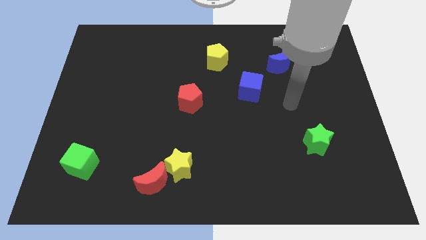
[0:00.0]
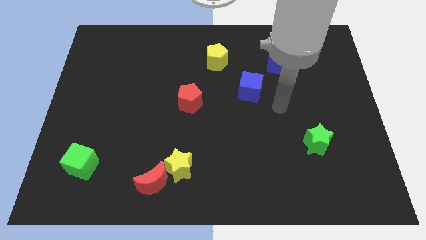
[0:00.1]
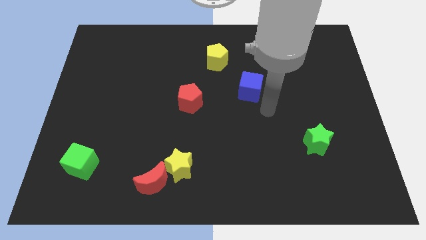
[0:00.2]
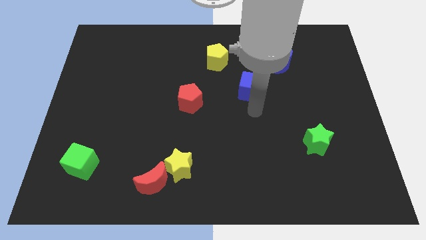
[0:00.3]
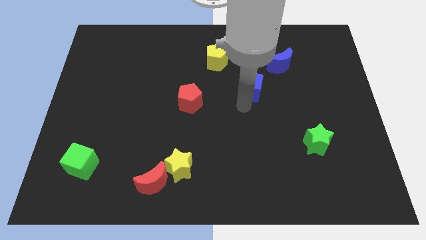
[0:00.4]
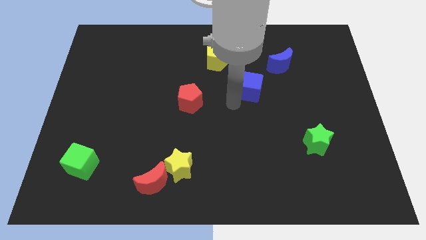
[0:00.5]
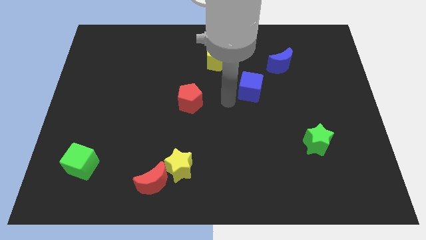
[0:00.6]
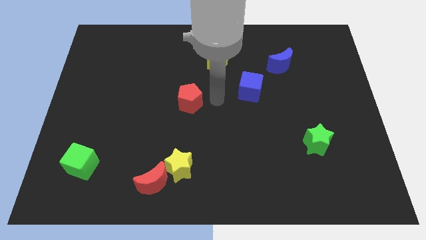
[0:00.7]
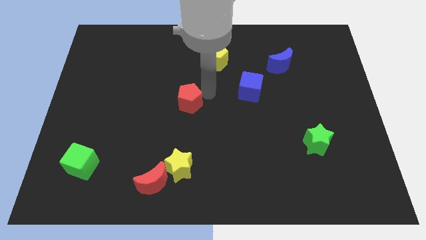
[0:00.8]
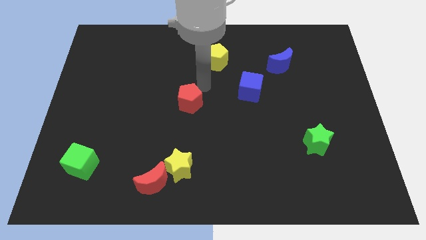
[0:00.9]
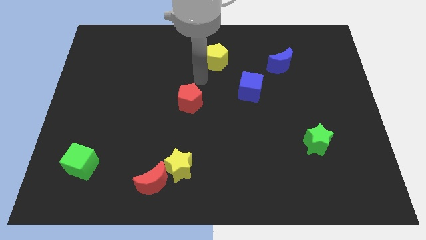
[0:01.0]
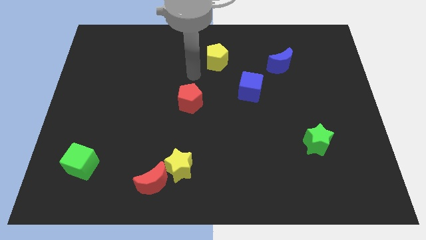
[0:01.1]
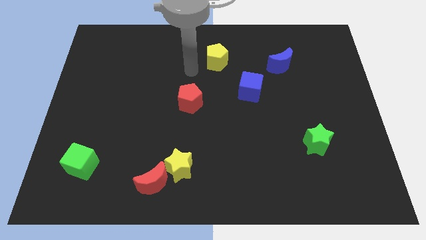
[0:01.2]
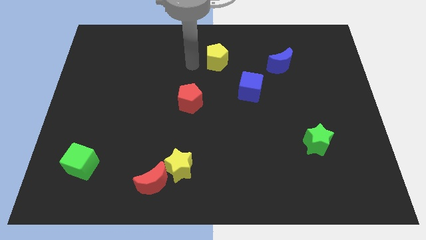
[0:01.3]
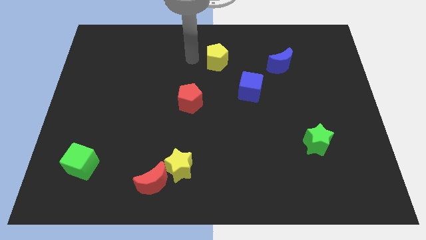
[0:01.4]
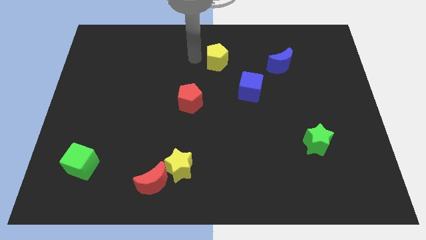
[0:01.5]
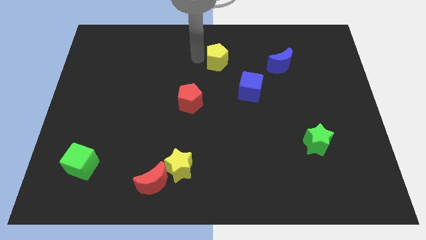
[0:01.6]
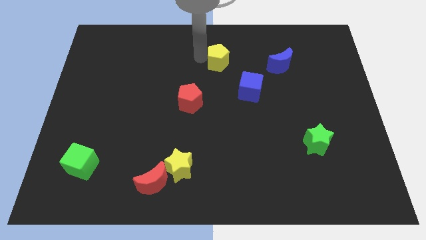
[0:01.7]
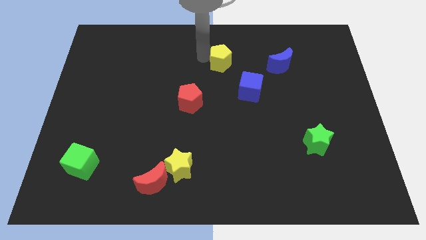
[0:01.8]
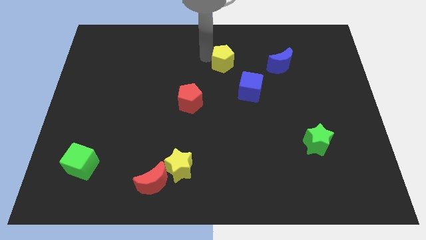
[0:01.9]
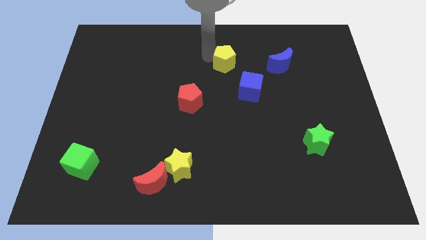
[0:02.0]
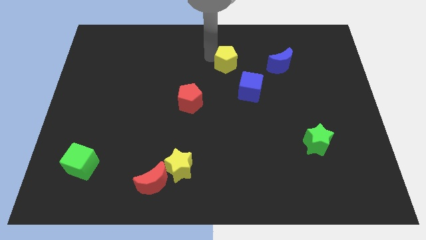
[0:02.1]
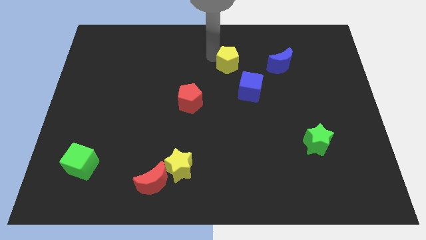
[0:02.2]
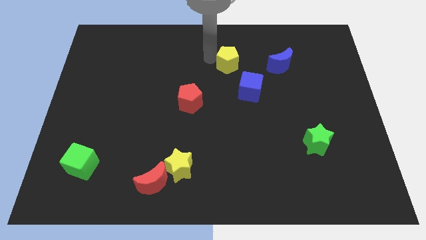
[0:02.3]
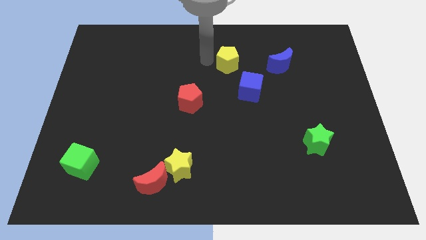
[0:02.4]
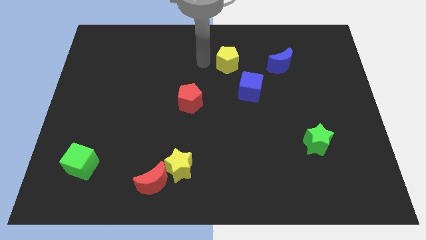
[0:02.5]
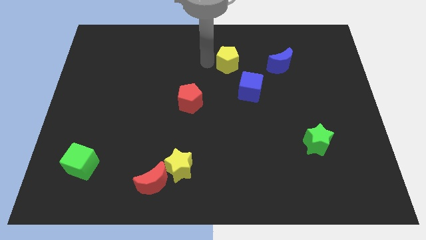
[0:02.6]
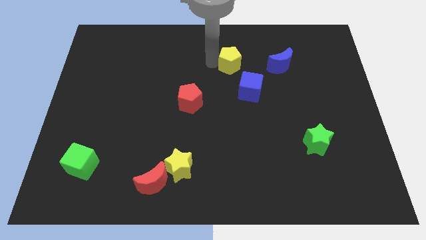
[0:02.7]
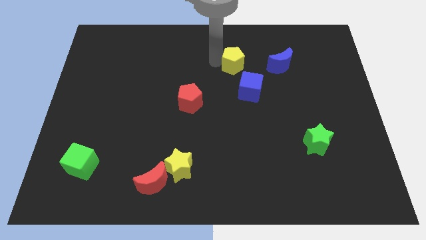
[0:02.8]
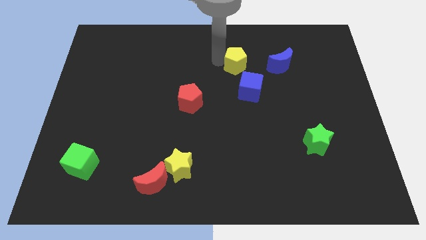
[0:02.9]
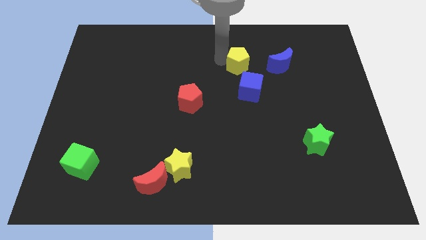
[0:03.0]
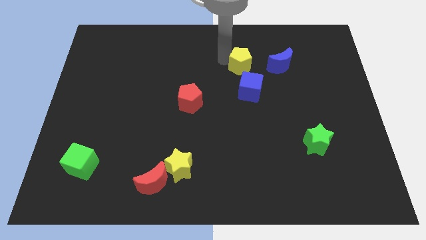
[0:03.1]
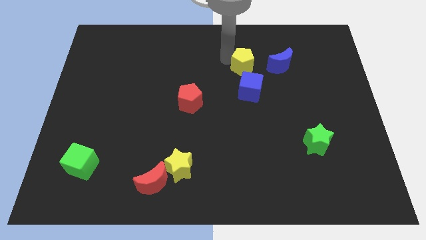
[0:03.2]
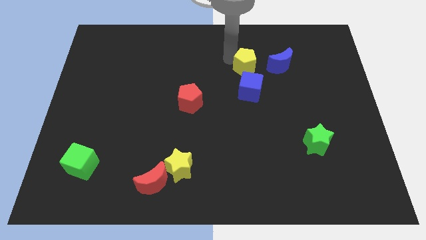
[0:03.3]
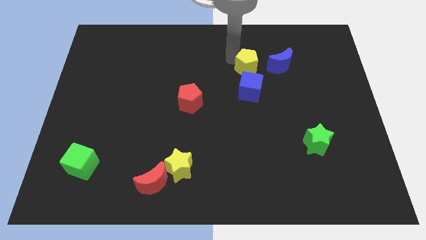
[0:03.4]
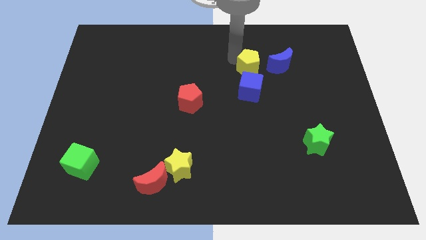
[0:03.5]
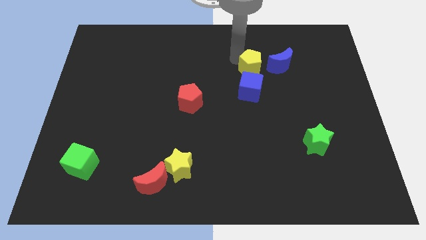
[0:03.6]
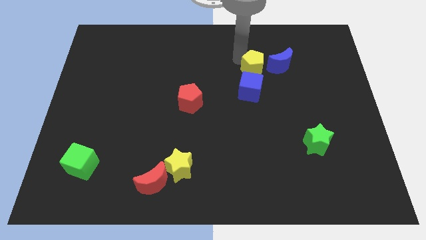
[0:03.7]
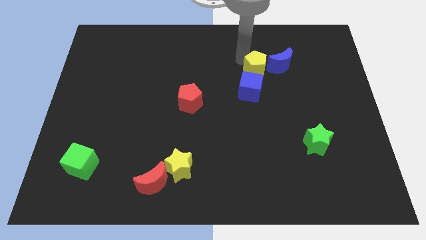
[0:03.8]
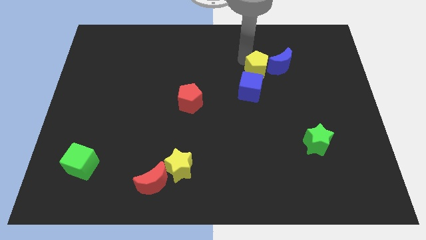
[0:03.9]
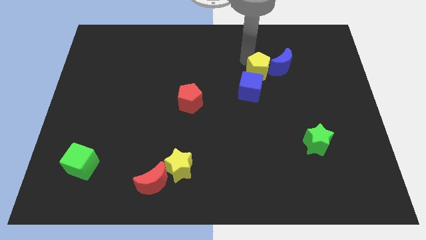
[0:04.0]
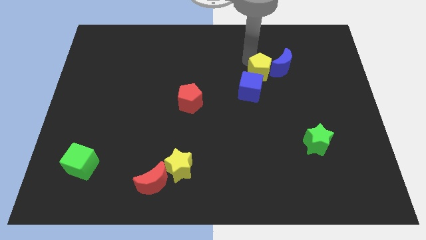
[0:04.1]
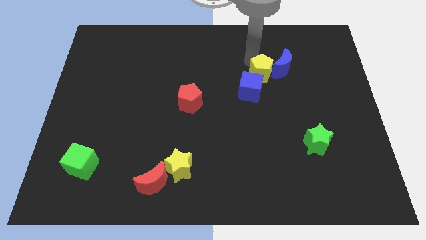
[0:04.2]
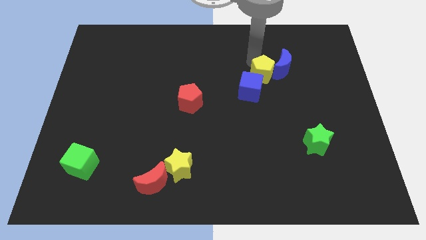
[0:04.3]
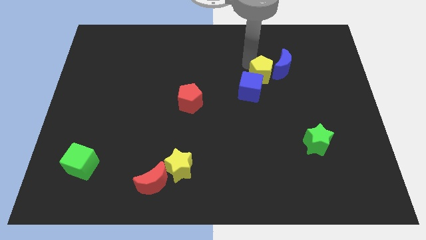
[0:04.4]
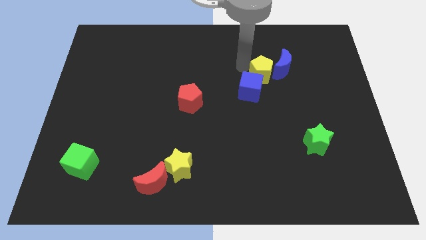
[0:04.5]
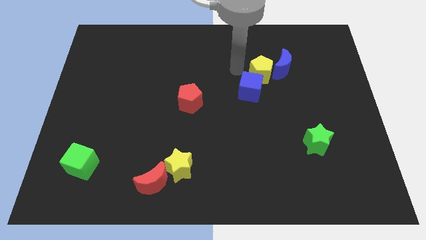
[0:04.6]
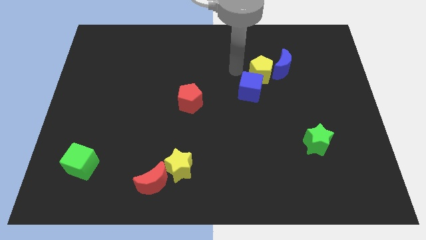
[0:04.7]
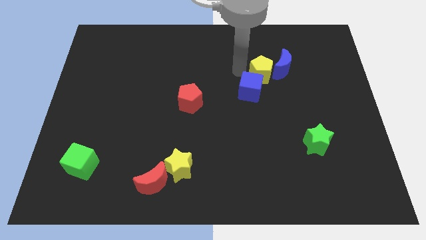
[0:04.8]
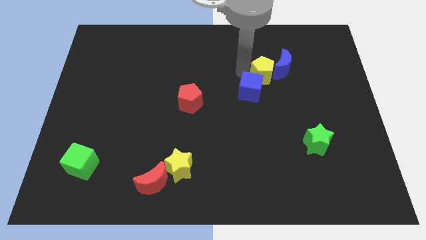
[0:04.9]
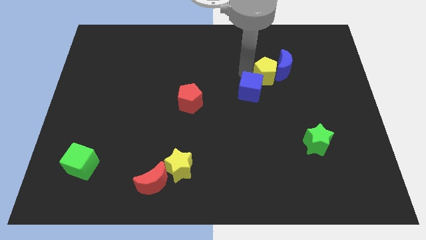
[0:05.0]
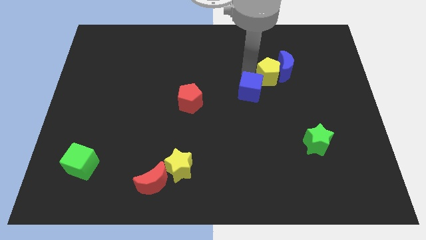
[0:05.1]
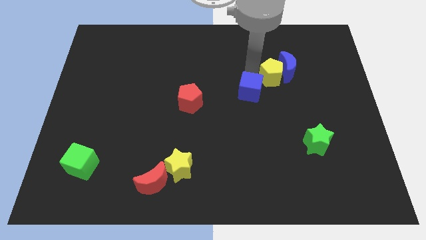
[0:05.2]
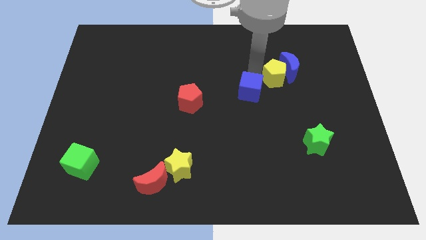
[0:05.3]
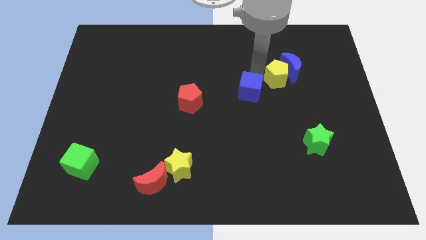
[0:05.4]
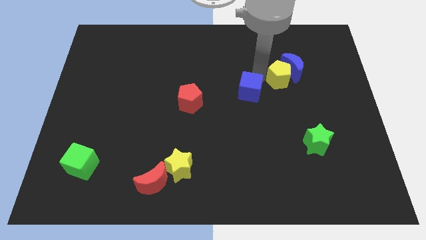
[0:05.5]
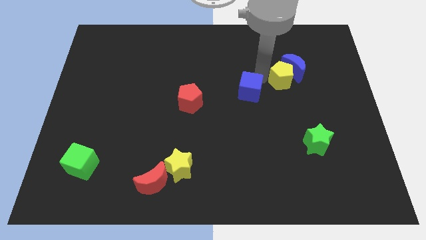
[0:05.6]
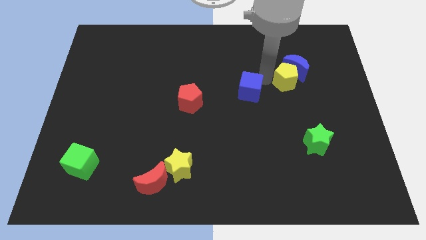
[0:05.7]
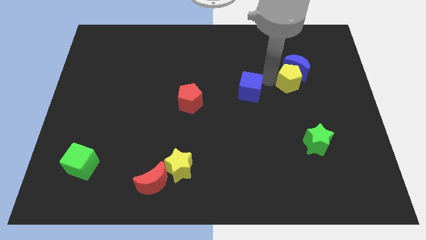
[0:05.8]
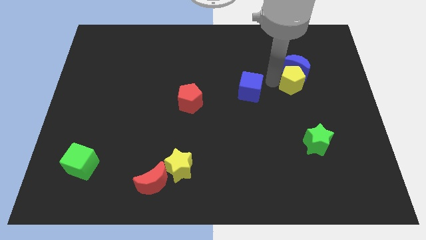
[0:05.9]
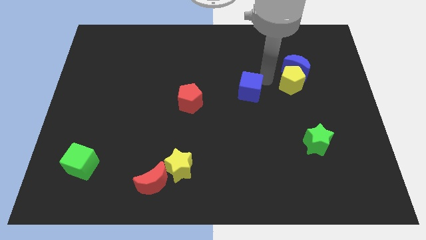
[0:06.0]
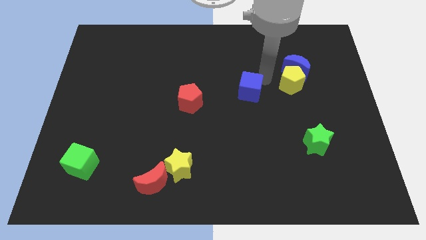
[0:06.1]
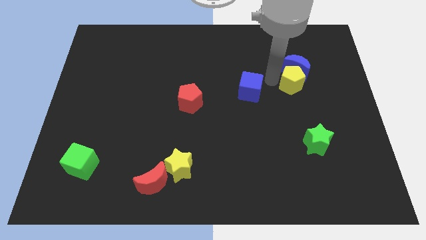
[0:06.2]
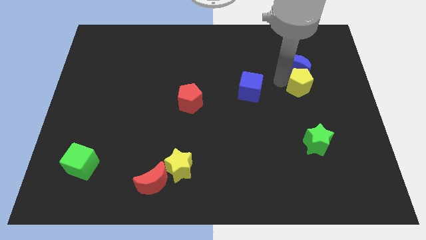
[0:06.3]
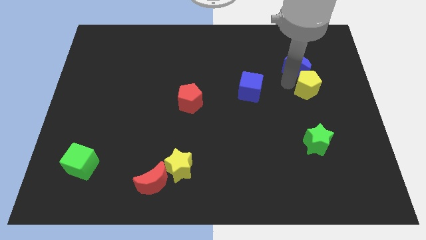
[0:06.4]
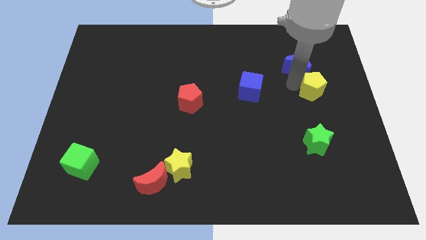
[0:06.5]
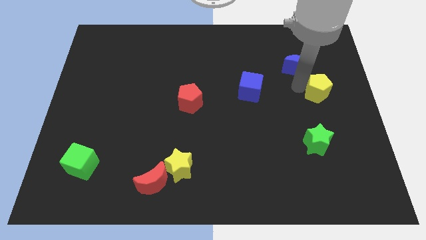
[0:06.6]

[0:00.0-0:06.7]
push the yellow pentagon to the right side
